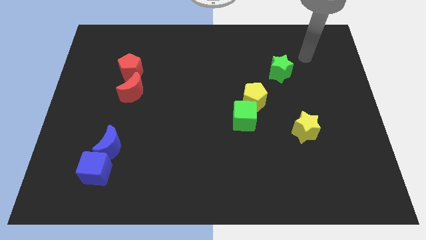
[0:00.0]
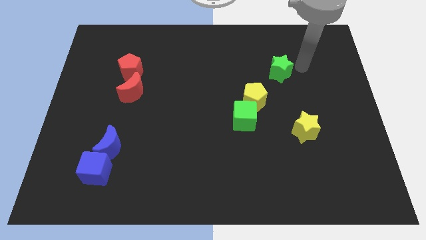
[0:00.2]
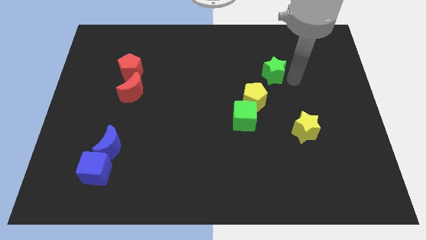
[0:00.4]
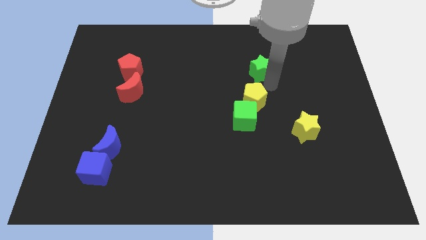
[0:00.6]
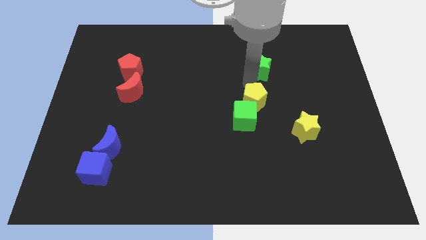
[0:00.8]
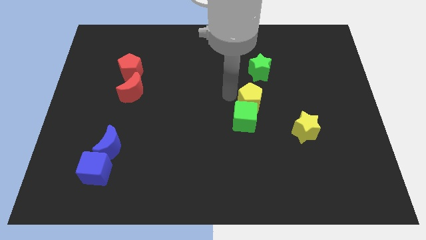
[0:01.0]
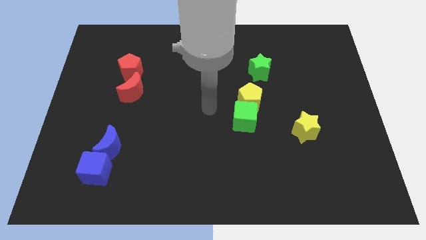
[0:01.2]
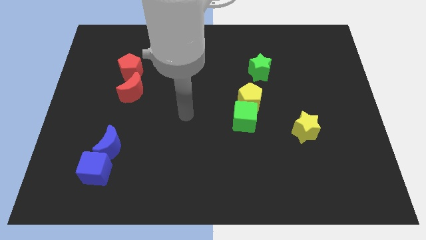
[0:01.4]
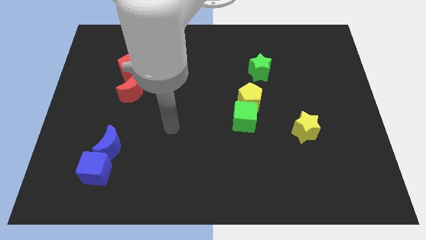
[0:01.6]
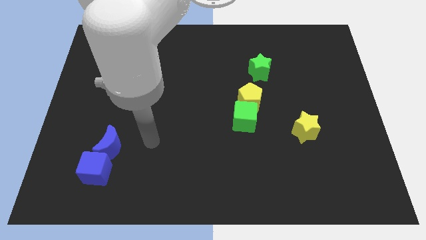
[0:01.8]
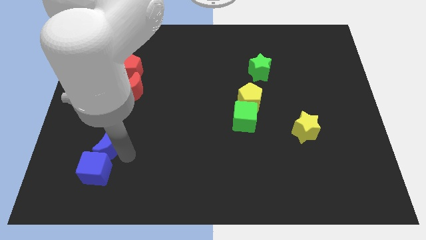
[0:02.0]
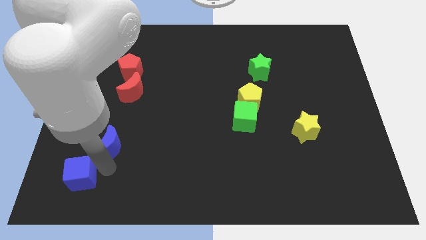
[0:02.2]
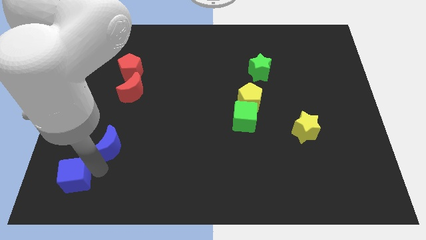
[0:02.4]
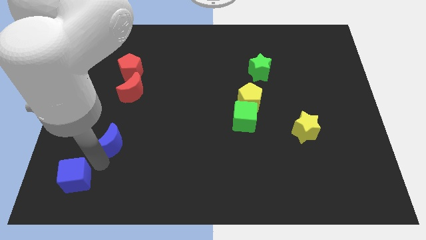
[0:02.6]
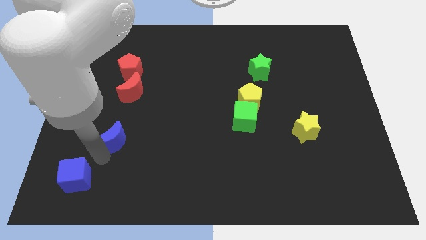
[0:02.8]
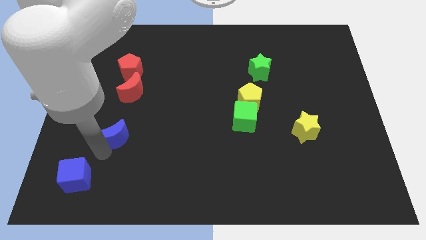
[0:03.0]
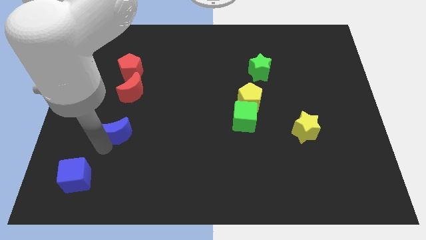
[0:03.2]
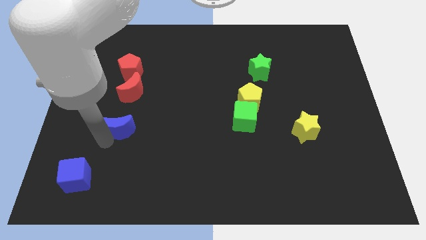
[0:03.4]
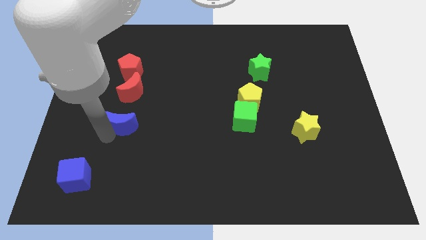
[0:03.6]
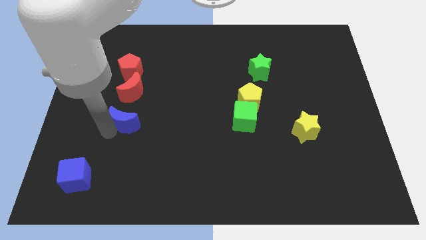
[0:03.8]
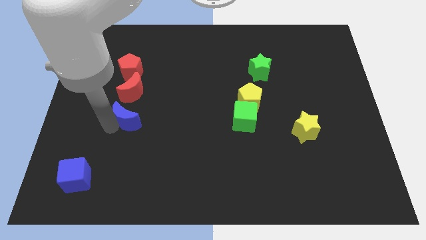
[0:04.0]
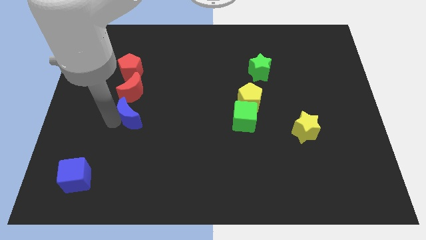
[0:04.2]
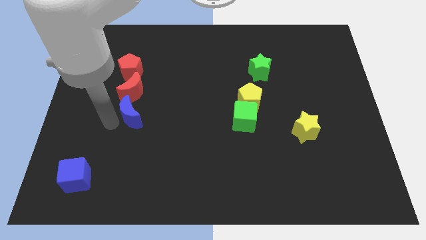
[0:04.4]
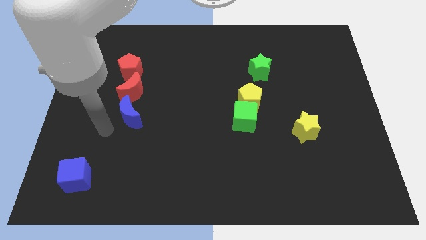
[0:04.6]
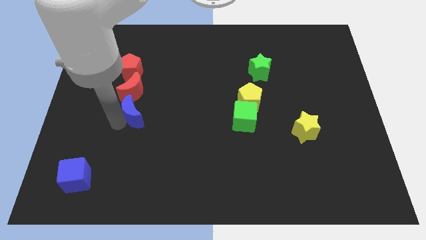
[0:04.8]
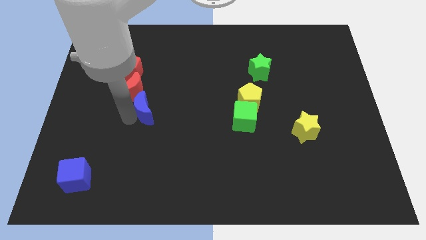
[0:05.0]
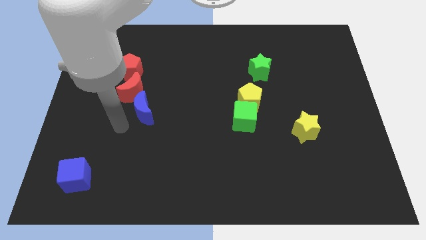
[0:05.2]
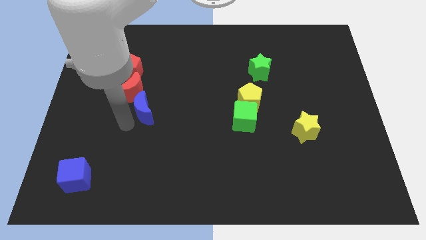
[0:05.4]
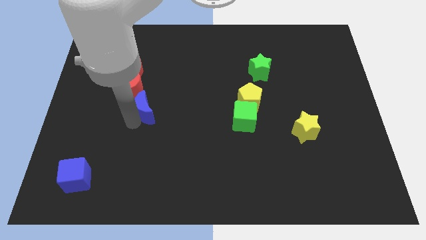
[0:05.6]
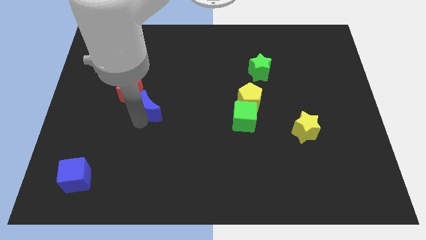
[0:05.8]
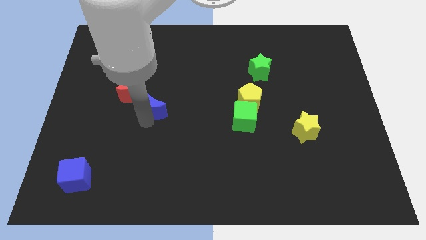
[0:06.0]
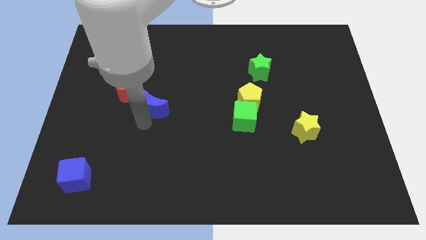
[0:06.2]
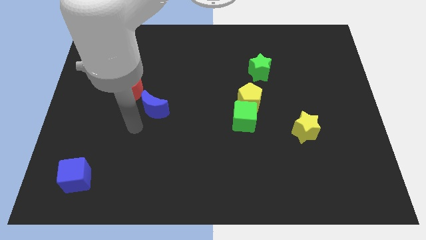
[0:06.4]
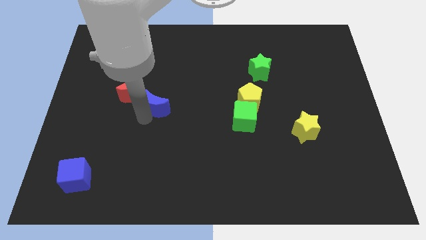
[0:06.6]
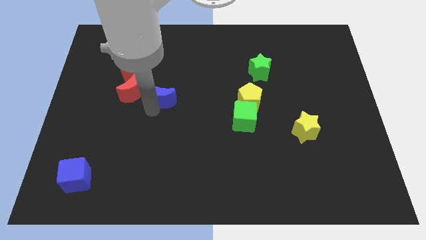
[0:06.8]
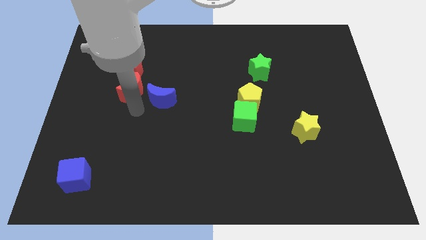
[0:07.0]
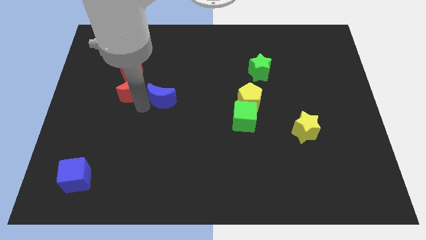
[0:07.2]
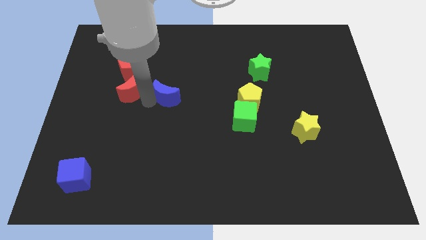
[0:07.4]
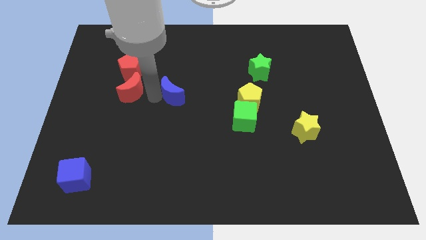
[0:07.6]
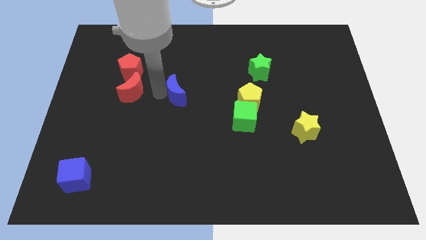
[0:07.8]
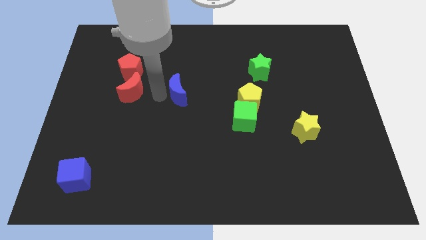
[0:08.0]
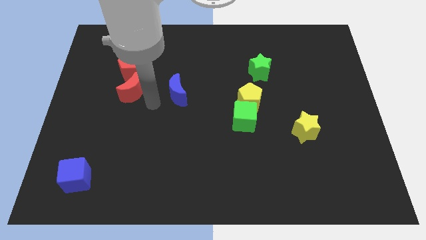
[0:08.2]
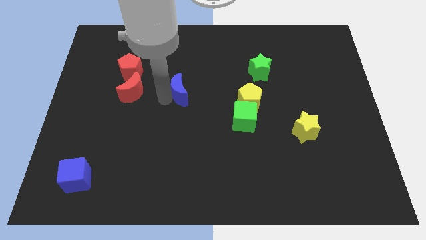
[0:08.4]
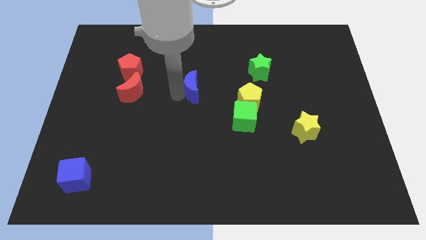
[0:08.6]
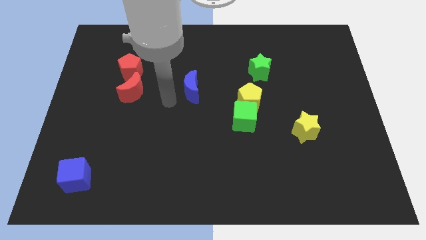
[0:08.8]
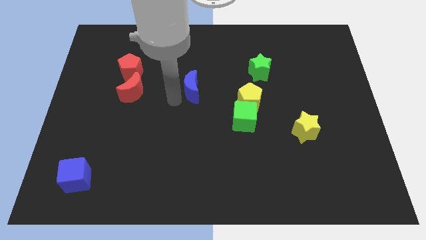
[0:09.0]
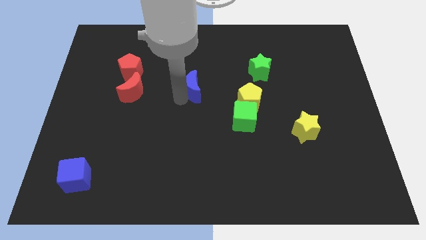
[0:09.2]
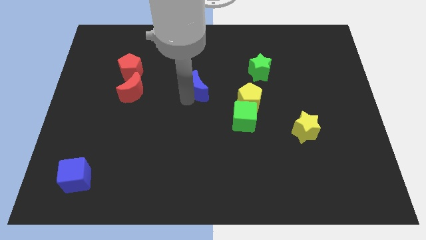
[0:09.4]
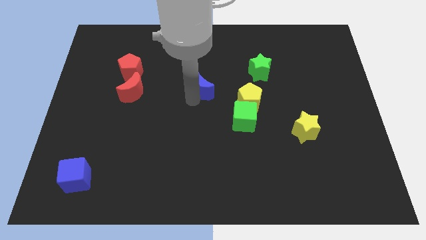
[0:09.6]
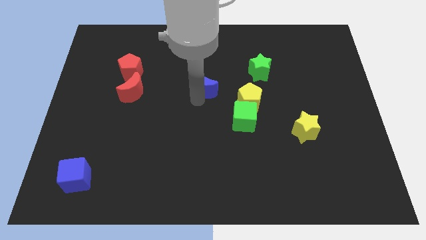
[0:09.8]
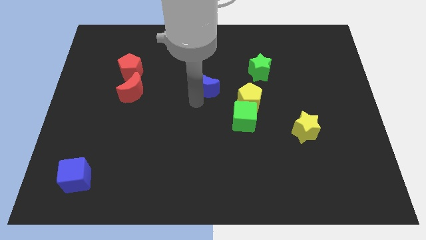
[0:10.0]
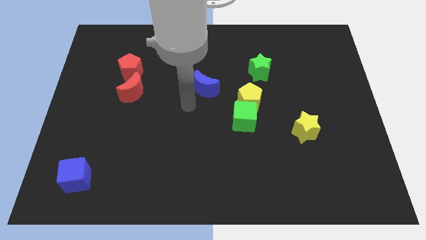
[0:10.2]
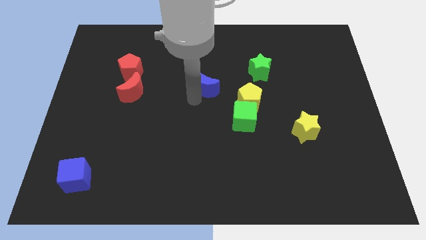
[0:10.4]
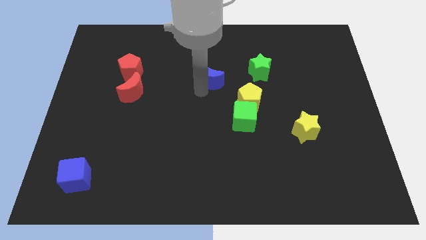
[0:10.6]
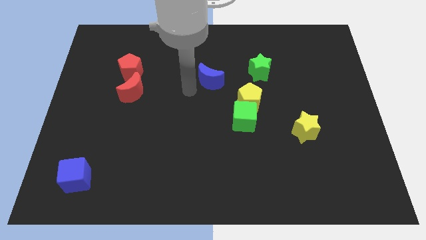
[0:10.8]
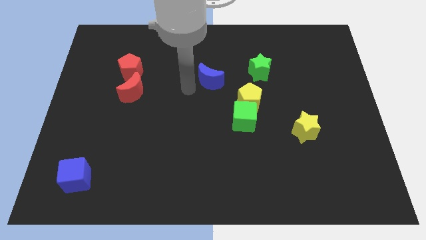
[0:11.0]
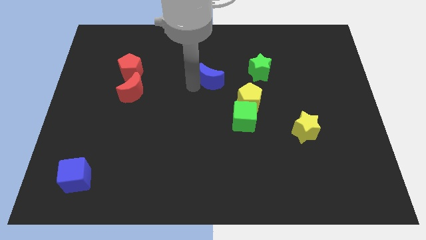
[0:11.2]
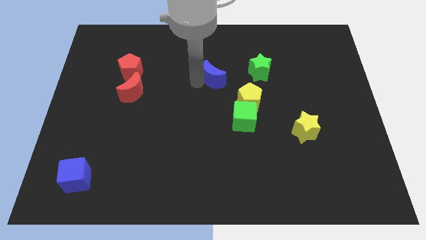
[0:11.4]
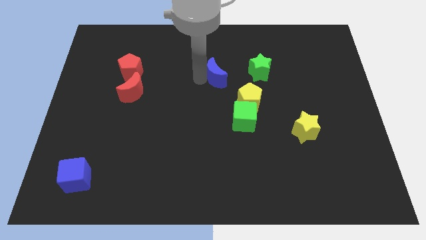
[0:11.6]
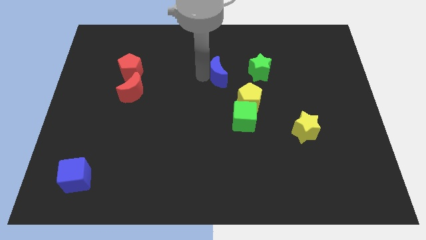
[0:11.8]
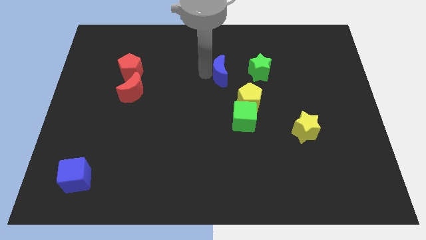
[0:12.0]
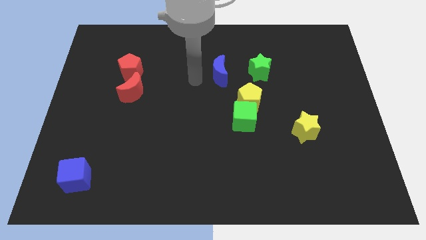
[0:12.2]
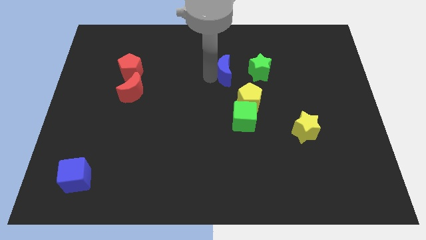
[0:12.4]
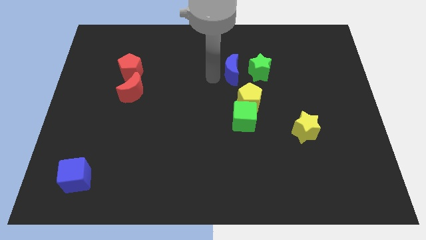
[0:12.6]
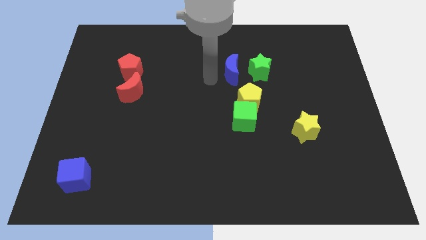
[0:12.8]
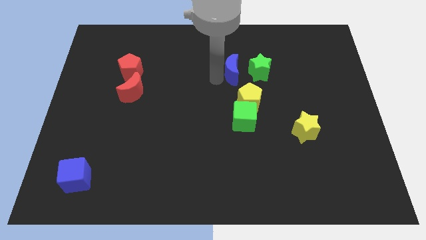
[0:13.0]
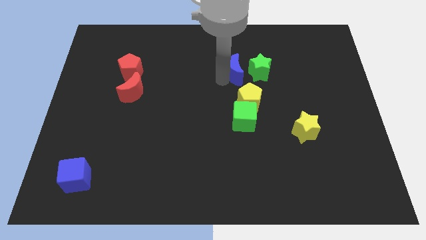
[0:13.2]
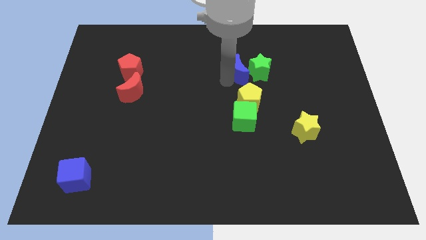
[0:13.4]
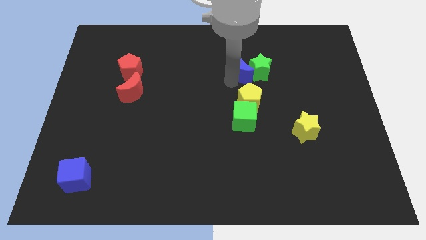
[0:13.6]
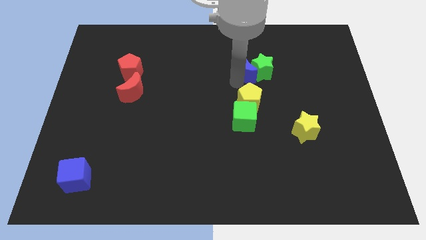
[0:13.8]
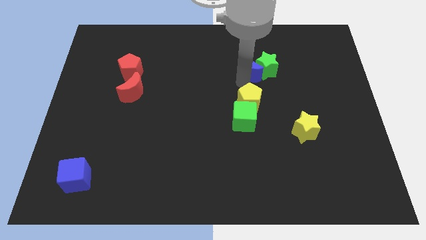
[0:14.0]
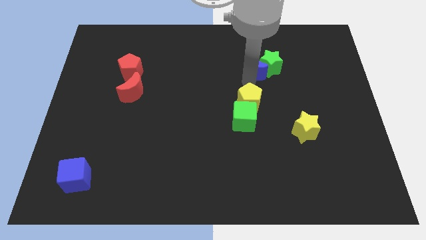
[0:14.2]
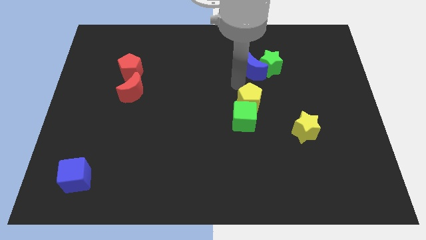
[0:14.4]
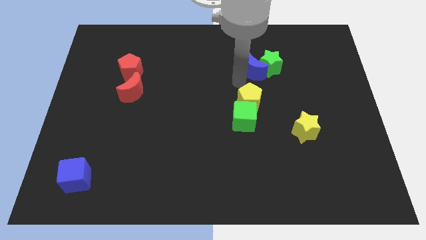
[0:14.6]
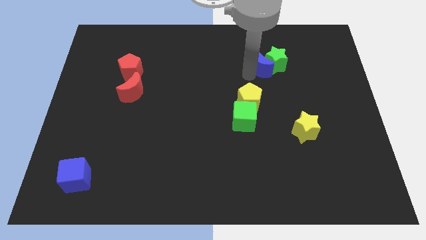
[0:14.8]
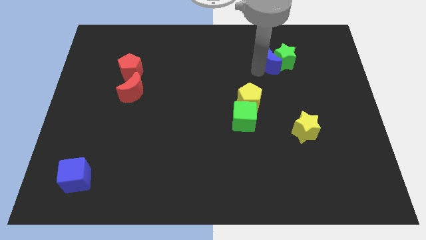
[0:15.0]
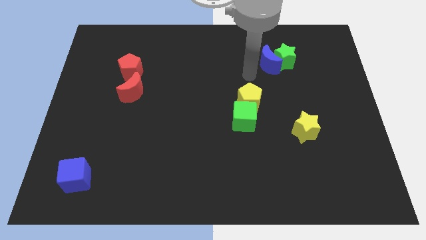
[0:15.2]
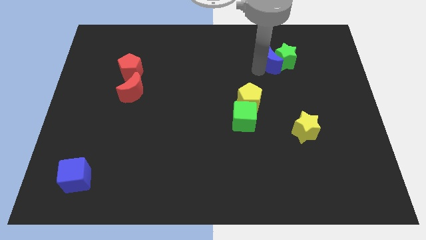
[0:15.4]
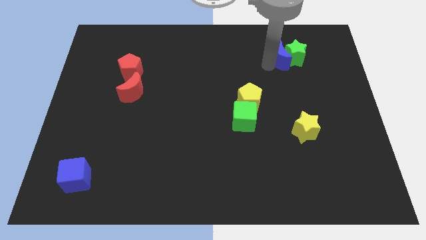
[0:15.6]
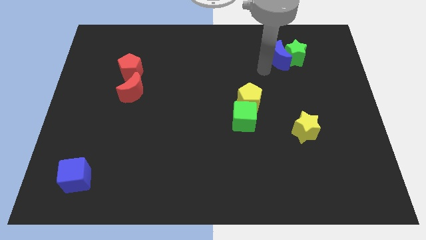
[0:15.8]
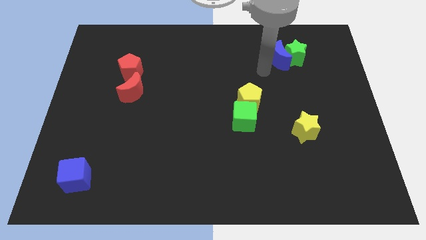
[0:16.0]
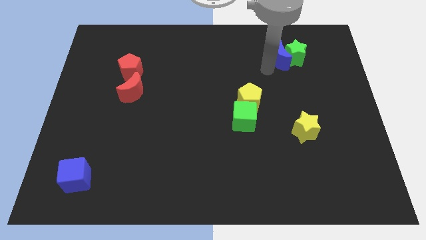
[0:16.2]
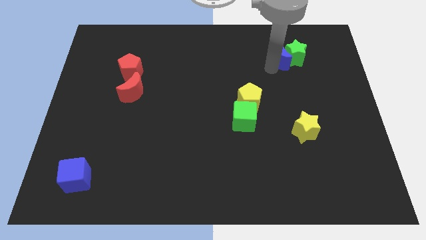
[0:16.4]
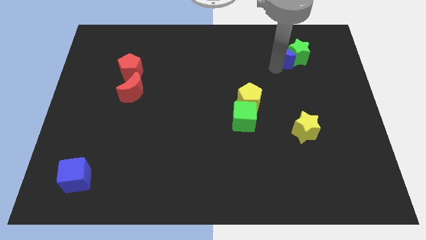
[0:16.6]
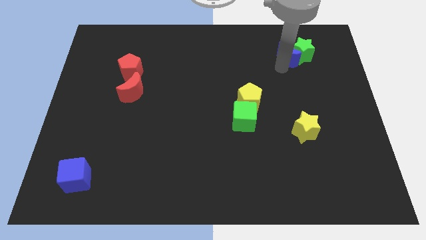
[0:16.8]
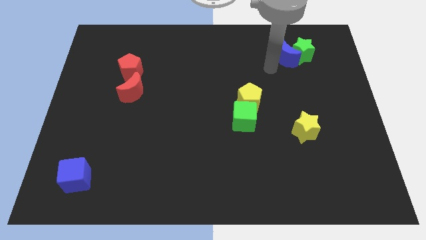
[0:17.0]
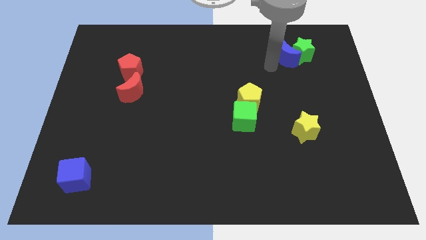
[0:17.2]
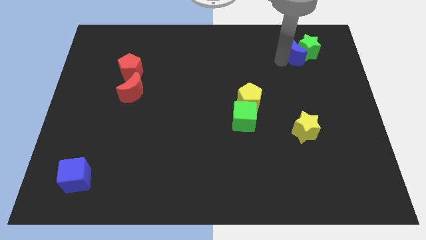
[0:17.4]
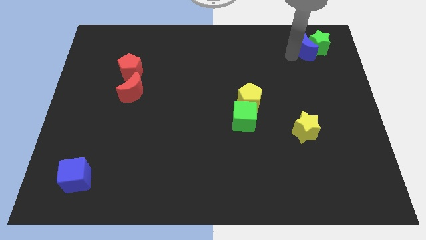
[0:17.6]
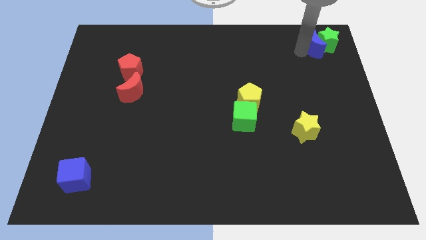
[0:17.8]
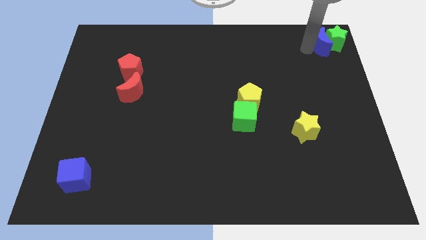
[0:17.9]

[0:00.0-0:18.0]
slide the blue moon to the top right of the board
